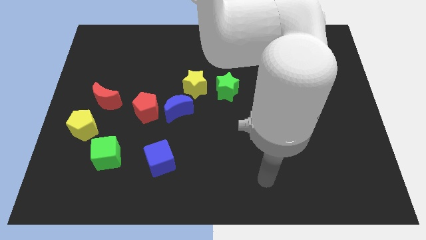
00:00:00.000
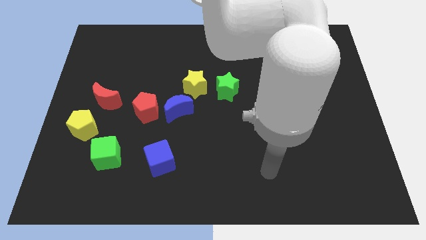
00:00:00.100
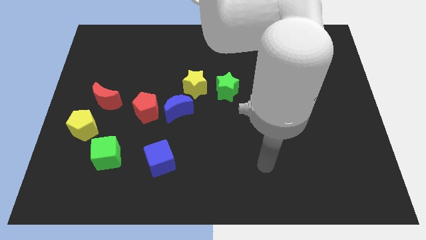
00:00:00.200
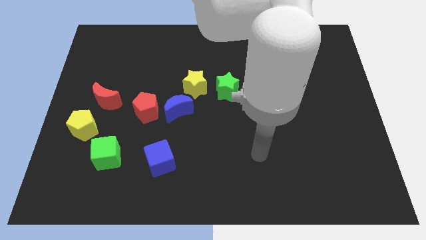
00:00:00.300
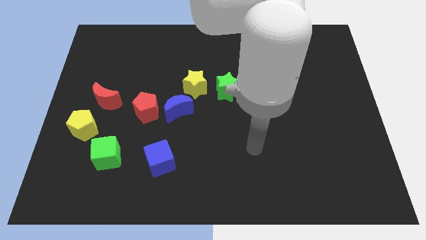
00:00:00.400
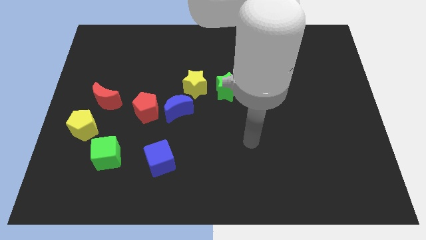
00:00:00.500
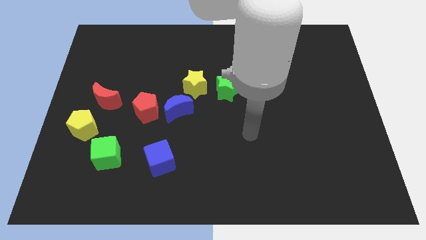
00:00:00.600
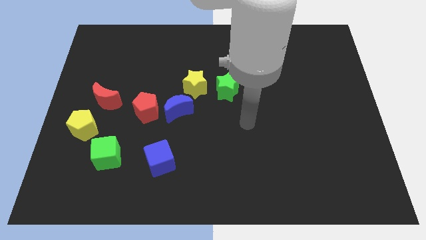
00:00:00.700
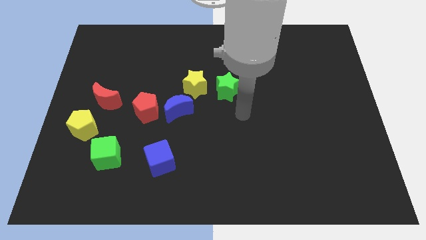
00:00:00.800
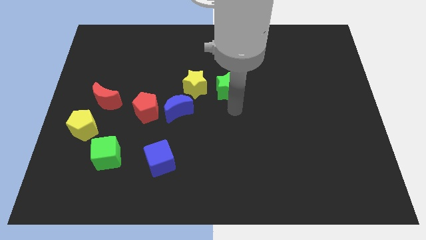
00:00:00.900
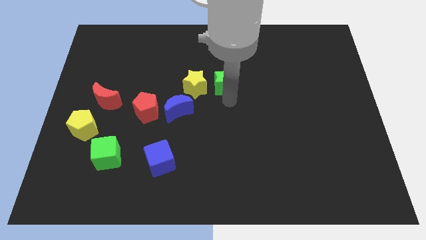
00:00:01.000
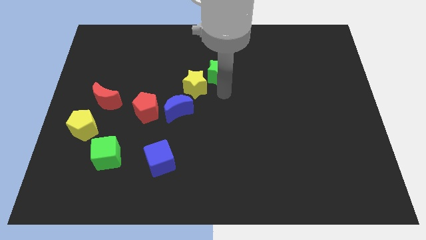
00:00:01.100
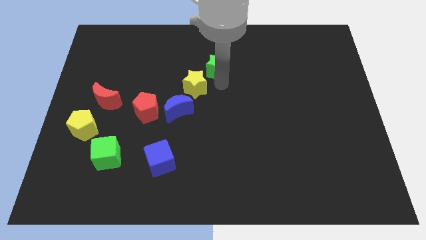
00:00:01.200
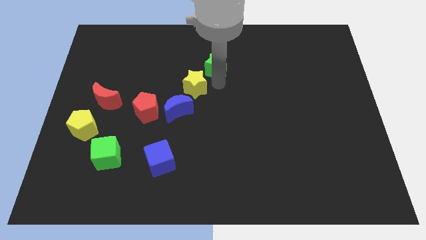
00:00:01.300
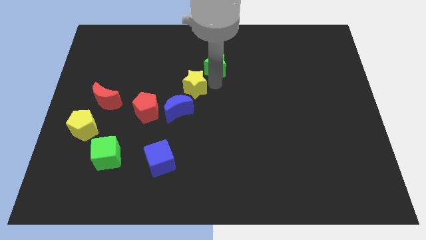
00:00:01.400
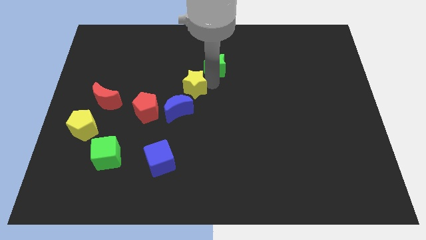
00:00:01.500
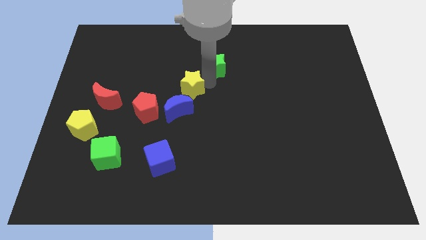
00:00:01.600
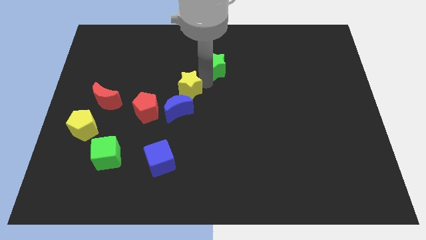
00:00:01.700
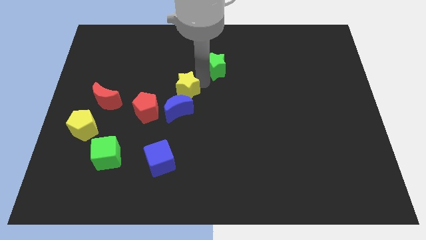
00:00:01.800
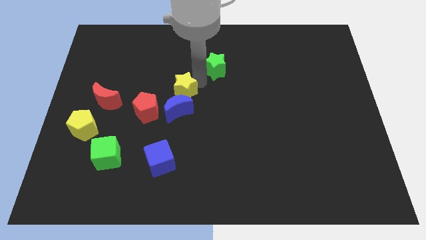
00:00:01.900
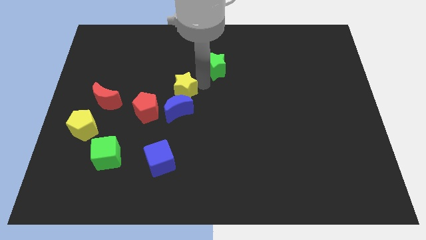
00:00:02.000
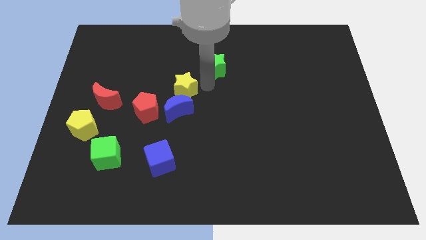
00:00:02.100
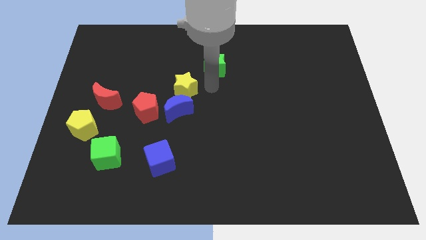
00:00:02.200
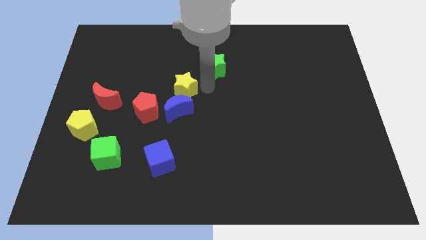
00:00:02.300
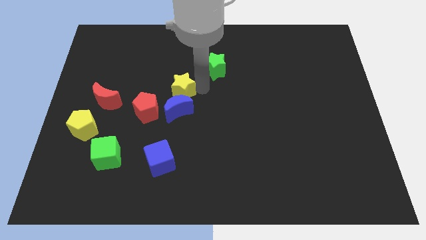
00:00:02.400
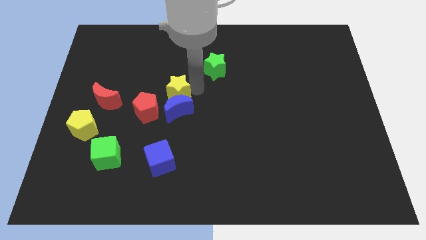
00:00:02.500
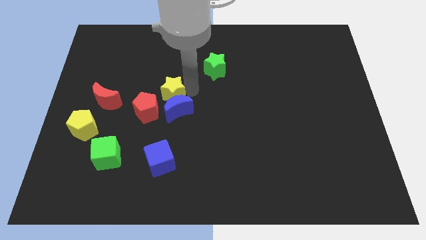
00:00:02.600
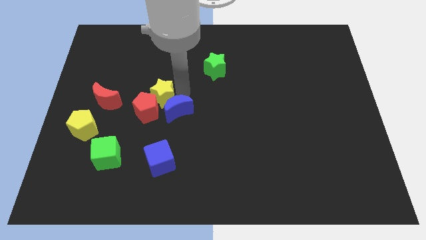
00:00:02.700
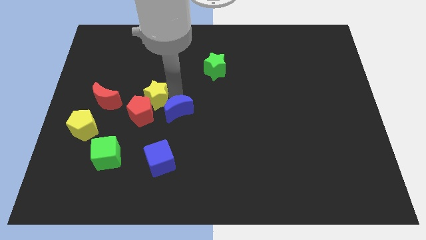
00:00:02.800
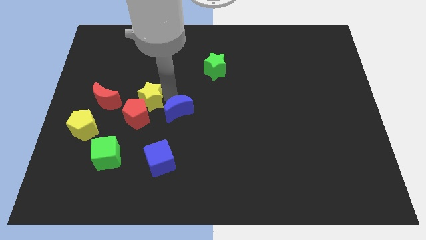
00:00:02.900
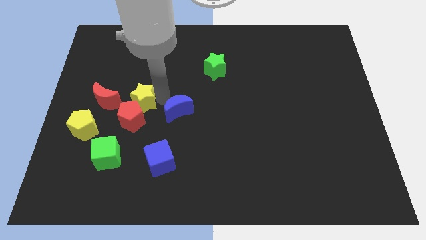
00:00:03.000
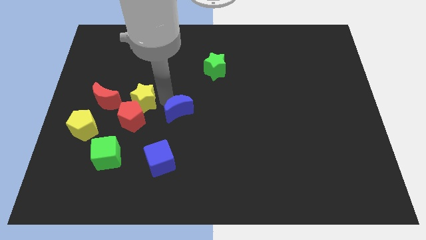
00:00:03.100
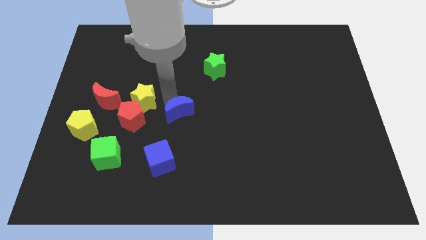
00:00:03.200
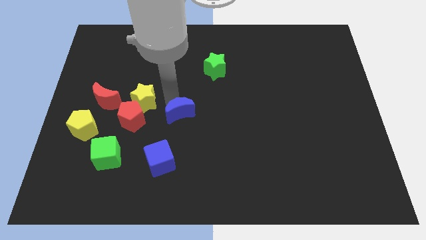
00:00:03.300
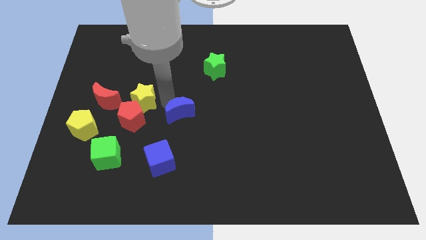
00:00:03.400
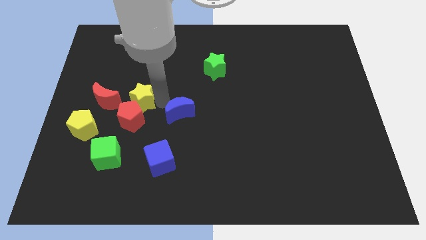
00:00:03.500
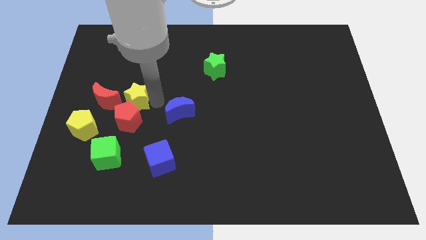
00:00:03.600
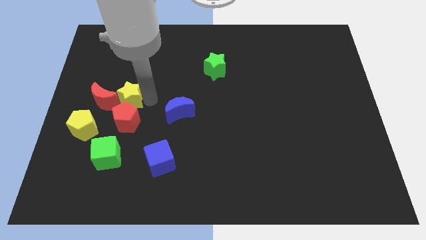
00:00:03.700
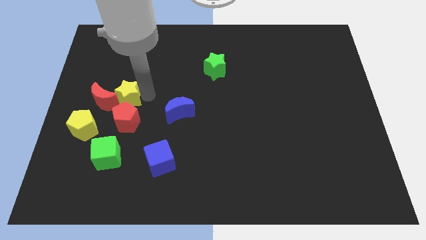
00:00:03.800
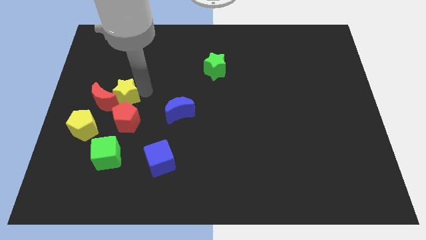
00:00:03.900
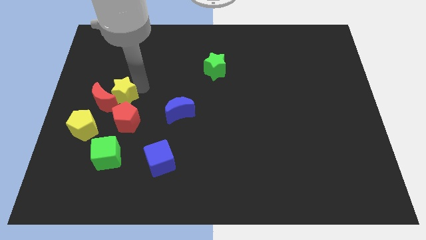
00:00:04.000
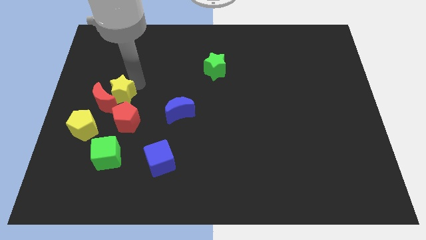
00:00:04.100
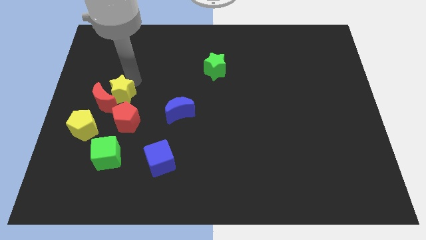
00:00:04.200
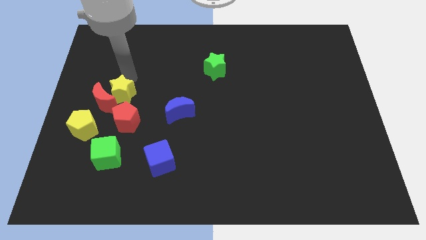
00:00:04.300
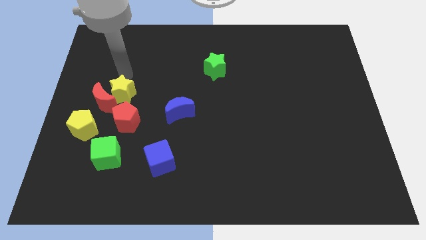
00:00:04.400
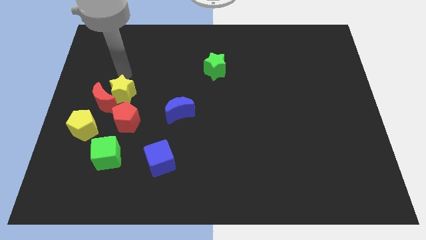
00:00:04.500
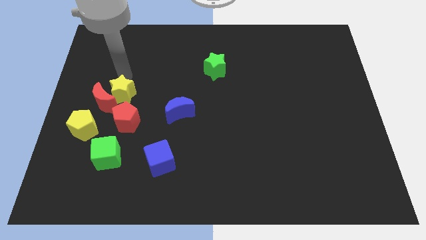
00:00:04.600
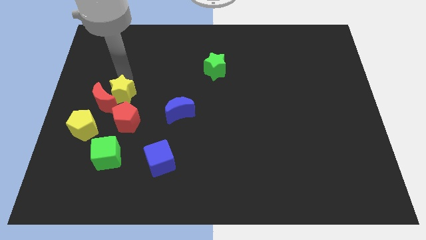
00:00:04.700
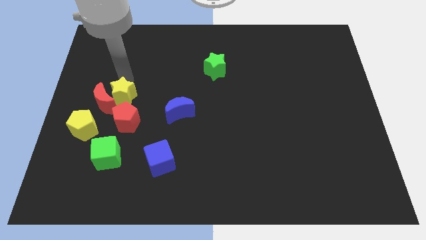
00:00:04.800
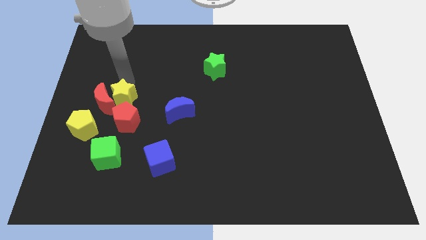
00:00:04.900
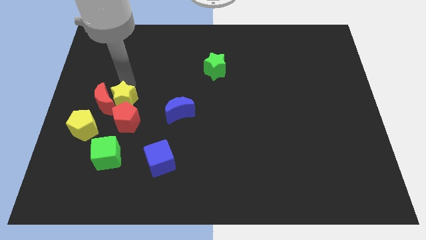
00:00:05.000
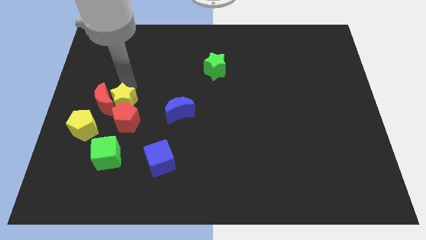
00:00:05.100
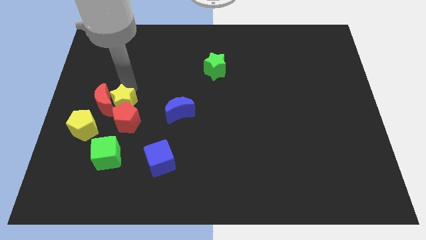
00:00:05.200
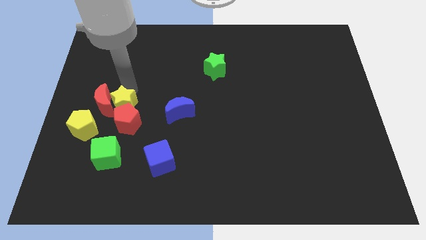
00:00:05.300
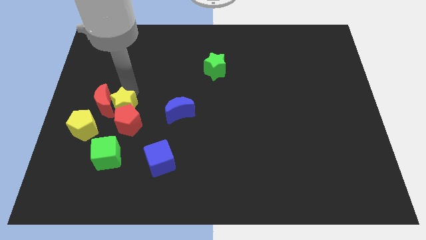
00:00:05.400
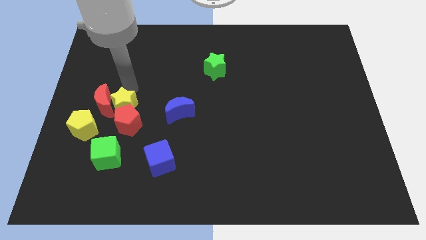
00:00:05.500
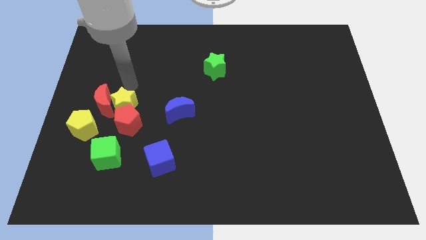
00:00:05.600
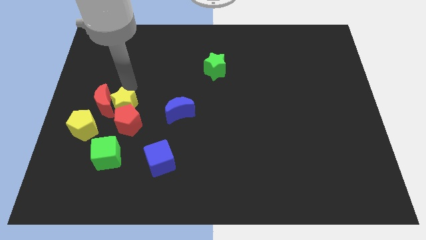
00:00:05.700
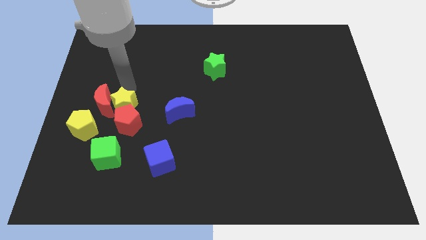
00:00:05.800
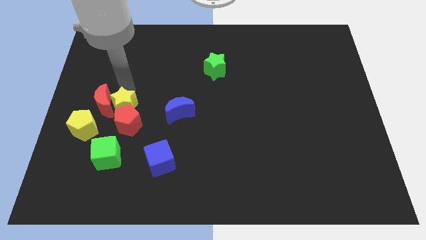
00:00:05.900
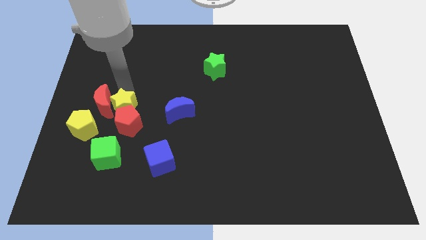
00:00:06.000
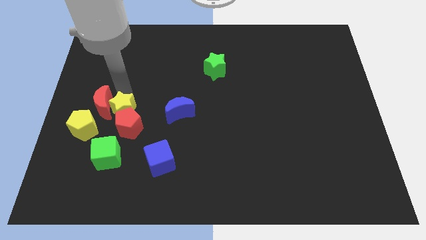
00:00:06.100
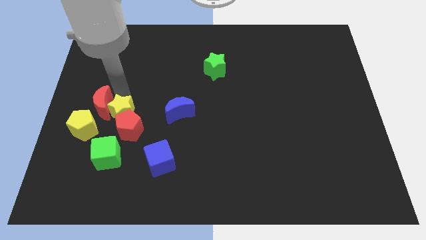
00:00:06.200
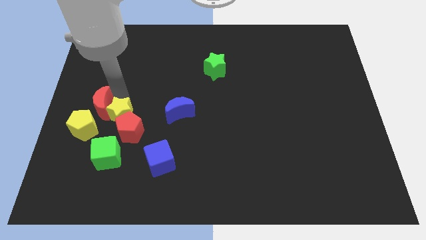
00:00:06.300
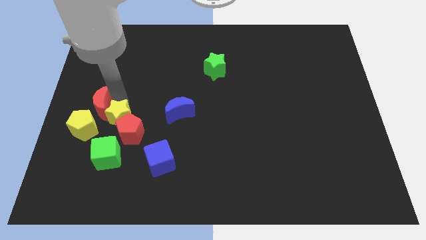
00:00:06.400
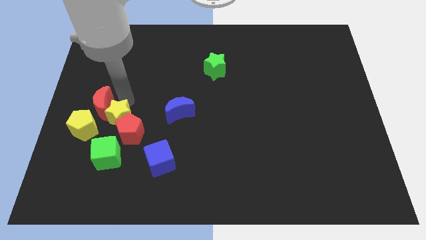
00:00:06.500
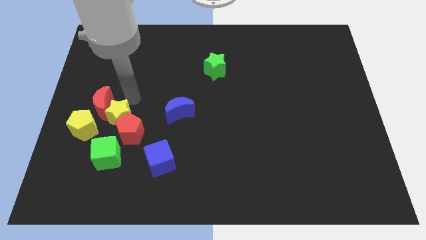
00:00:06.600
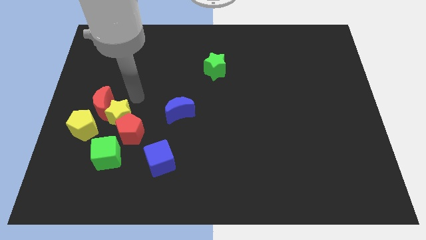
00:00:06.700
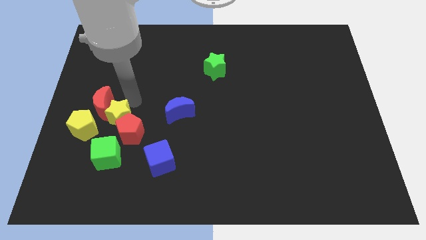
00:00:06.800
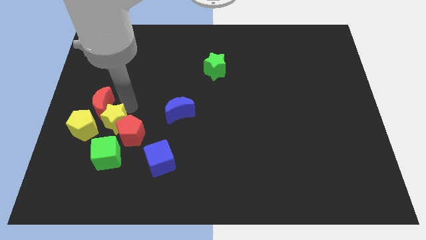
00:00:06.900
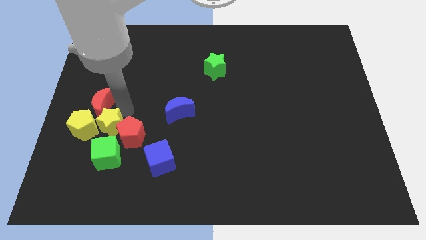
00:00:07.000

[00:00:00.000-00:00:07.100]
move the yellow star diagonally down and left

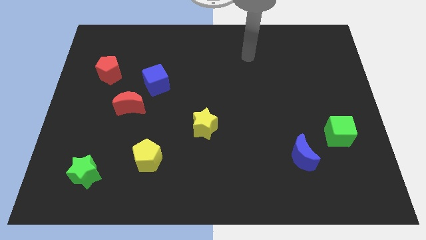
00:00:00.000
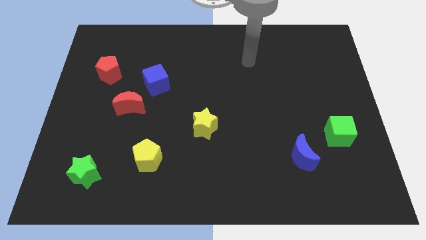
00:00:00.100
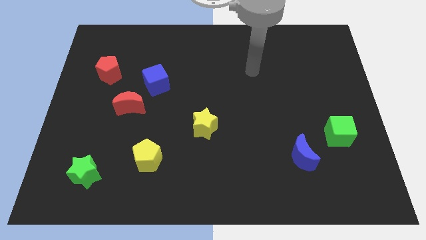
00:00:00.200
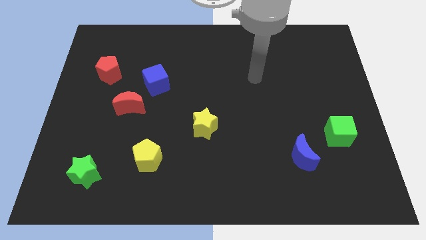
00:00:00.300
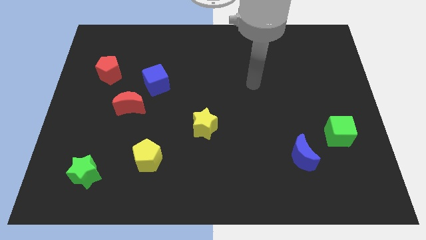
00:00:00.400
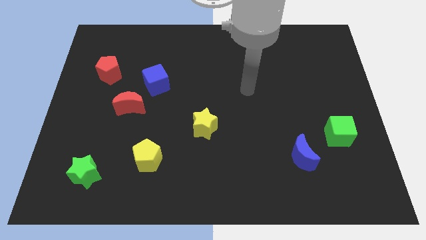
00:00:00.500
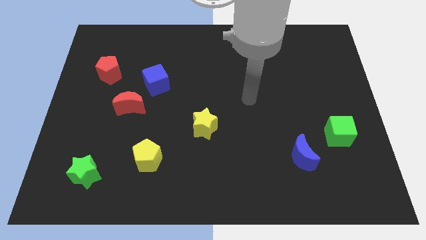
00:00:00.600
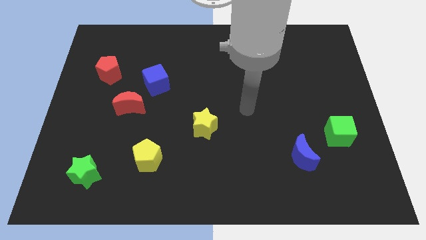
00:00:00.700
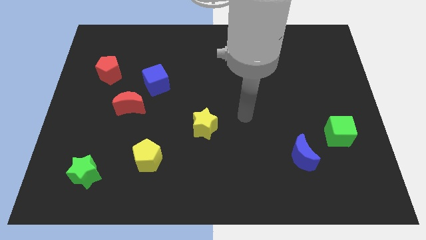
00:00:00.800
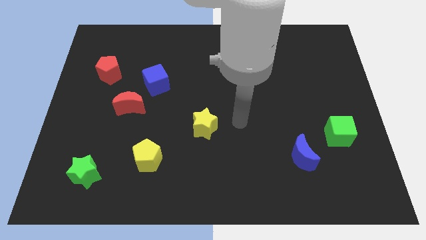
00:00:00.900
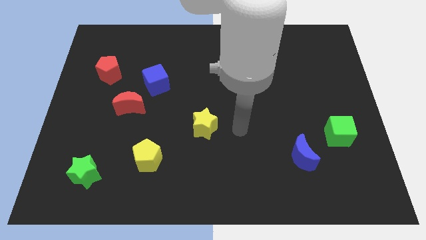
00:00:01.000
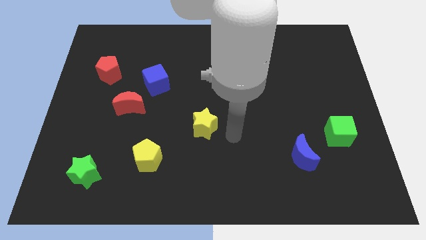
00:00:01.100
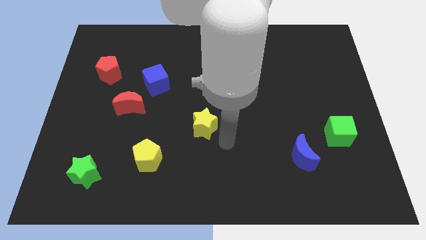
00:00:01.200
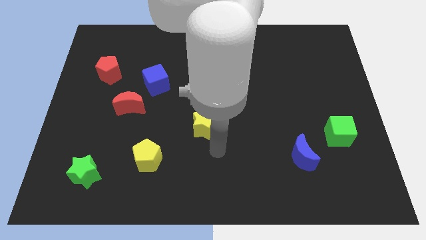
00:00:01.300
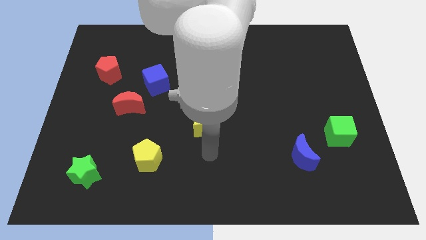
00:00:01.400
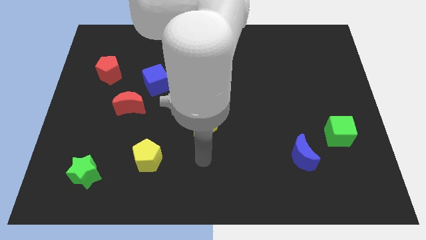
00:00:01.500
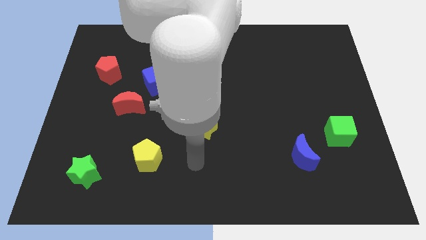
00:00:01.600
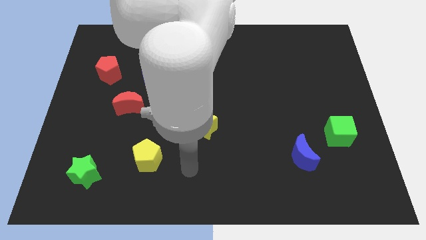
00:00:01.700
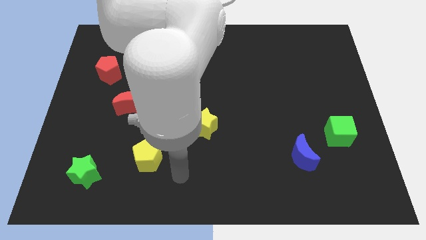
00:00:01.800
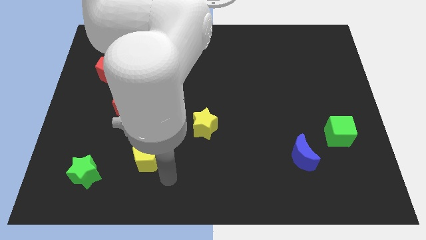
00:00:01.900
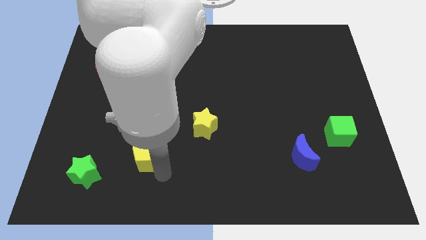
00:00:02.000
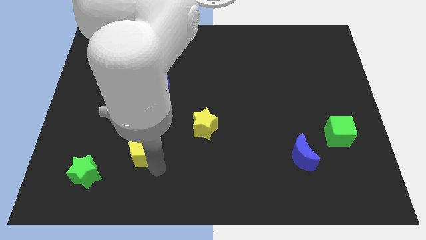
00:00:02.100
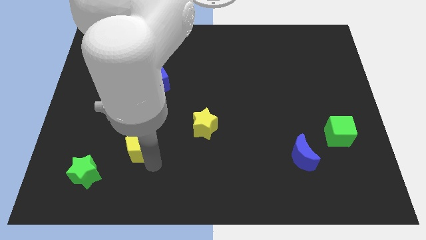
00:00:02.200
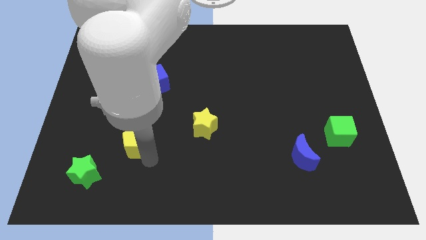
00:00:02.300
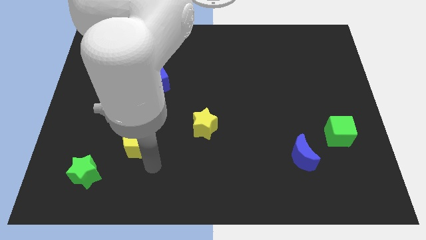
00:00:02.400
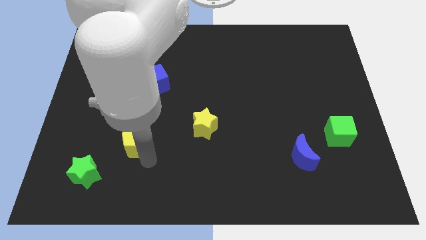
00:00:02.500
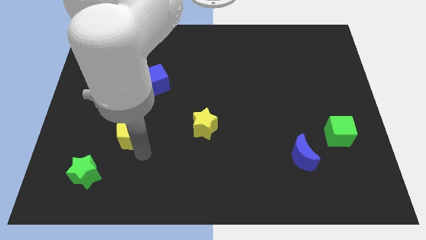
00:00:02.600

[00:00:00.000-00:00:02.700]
slightly push the yellow pentagon up and left
